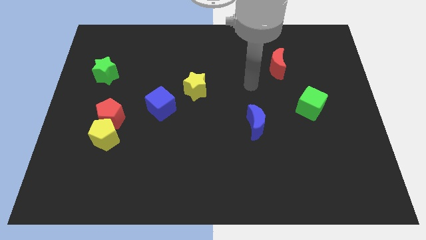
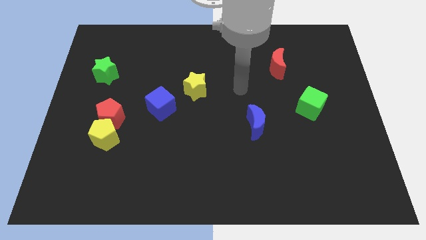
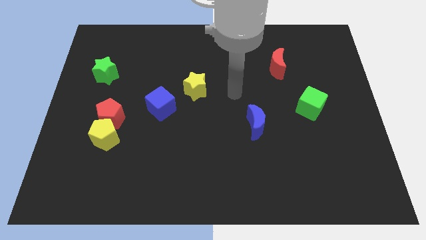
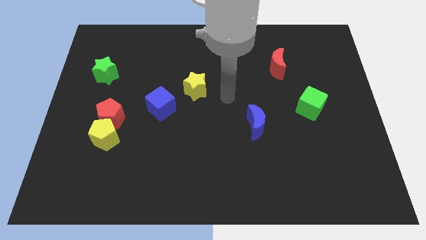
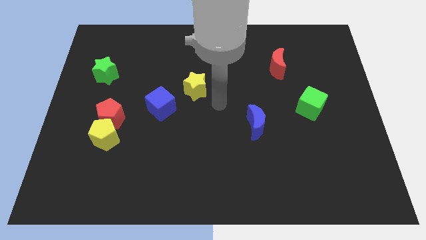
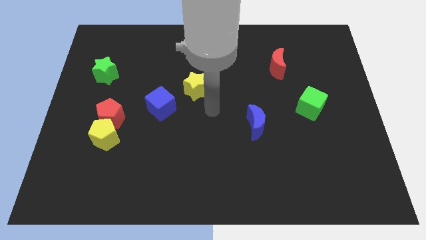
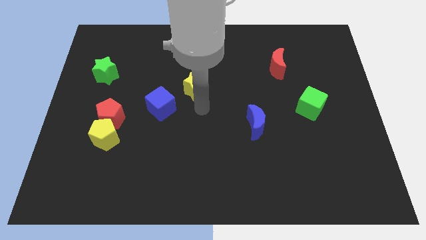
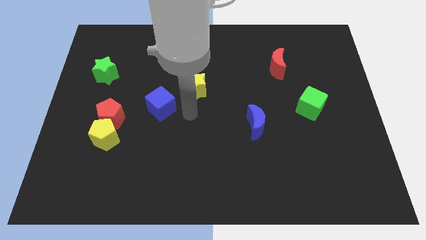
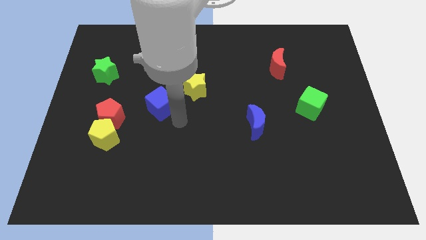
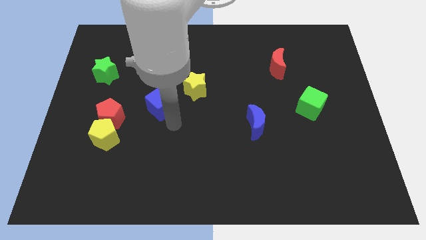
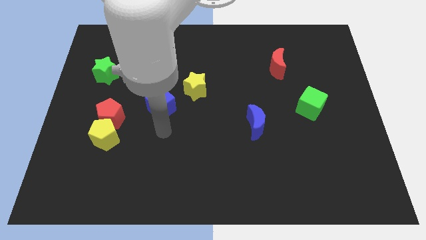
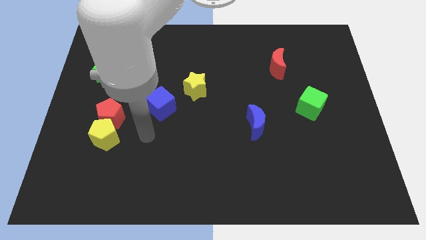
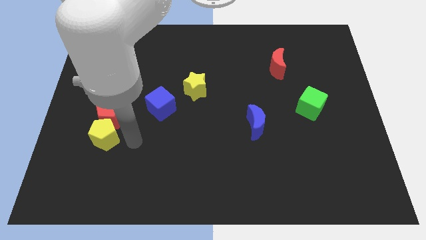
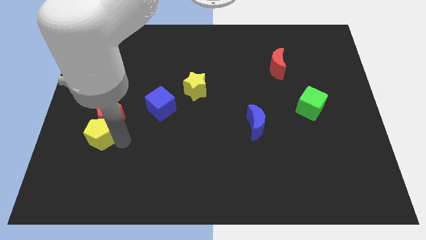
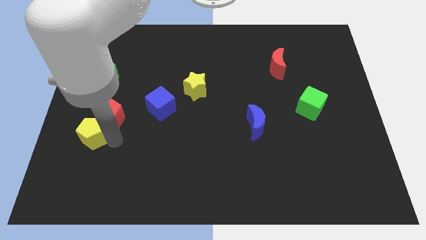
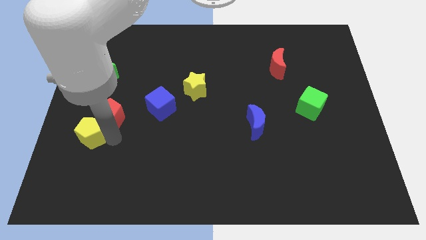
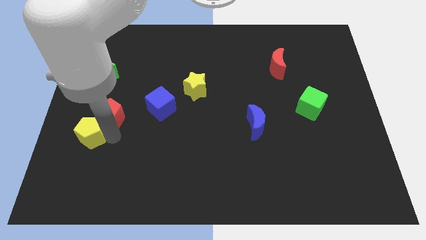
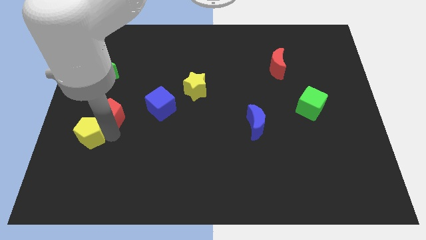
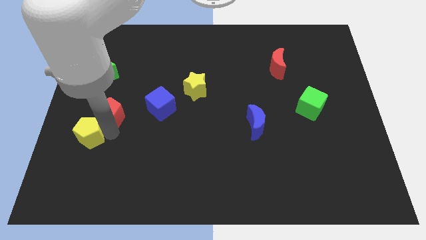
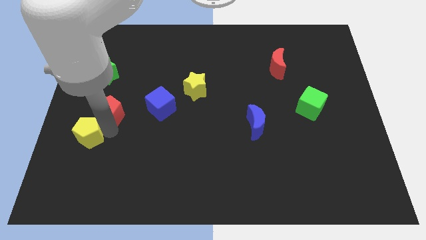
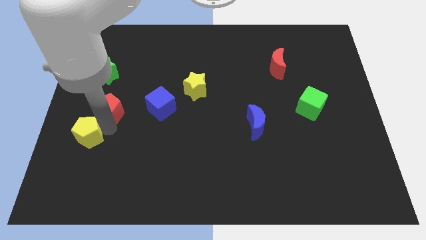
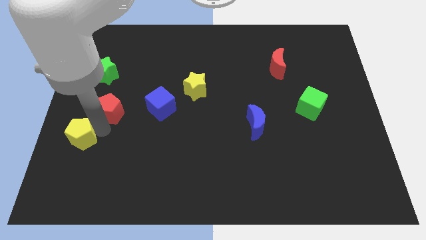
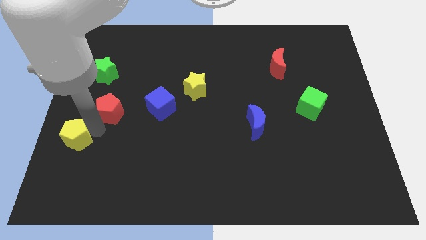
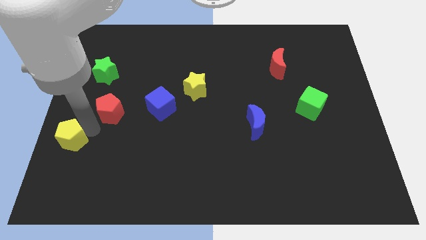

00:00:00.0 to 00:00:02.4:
separate the red pentagon from the yellow pentagon

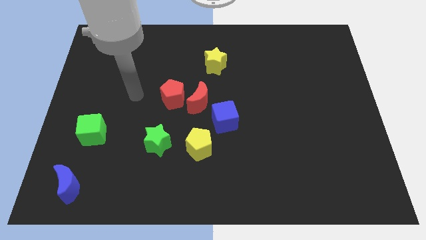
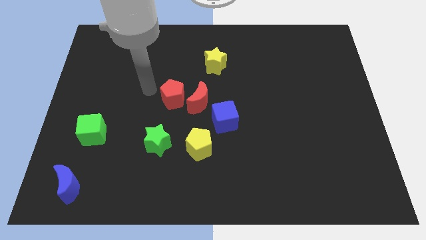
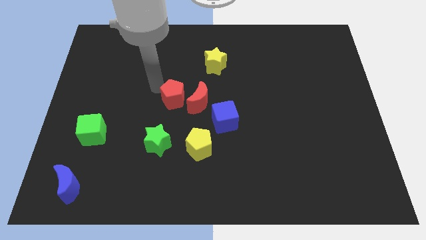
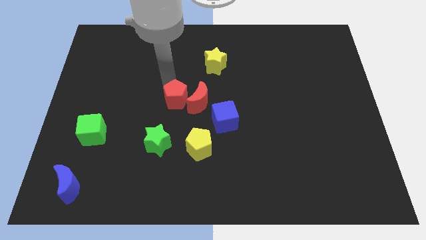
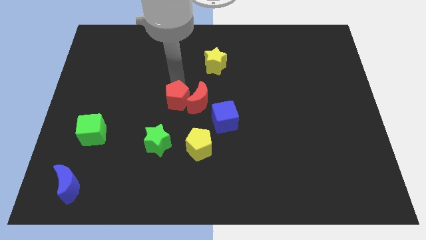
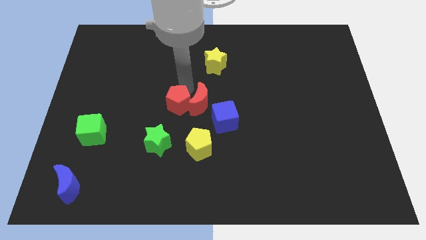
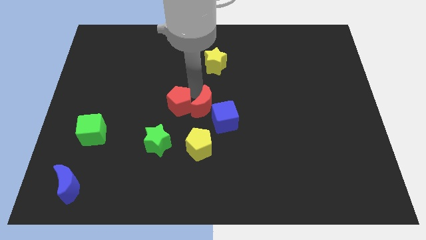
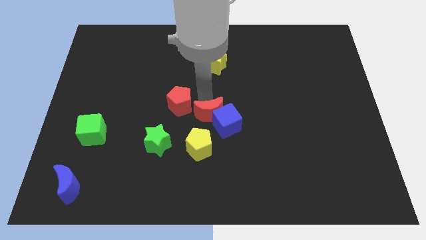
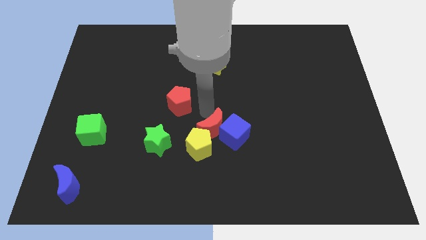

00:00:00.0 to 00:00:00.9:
move the red pentagon away from the red moon

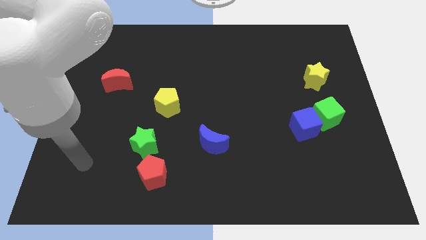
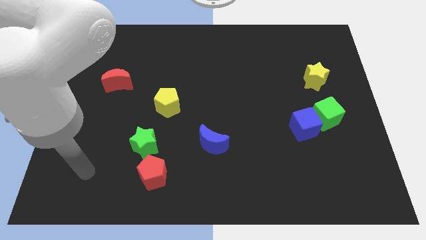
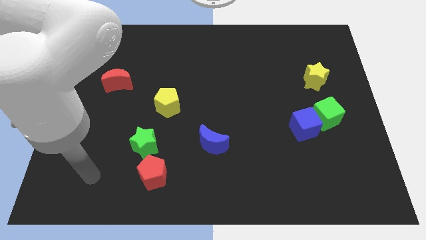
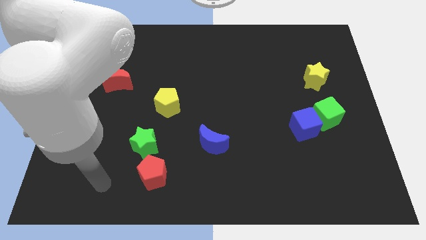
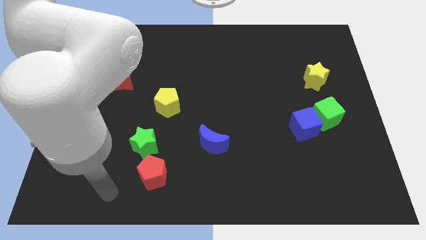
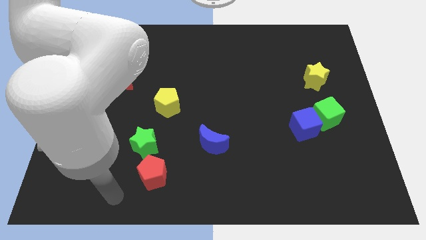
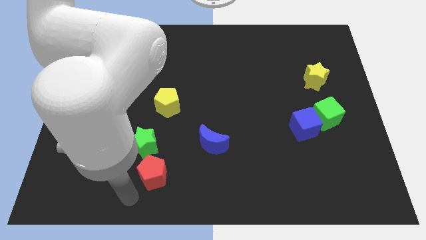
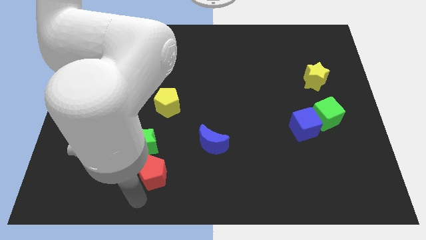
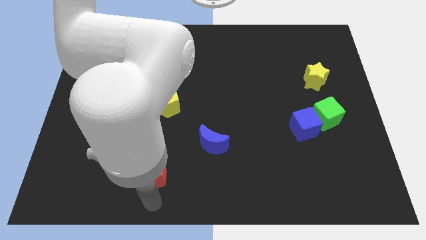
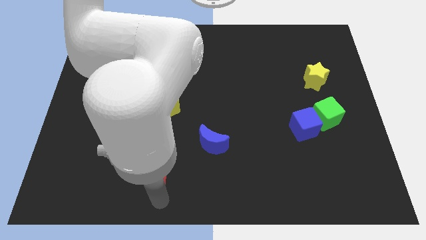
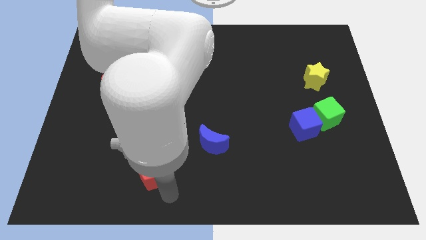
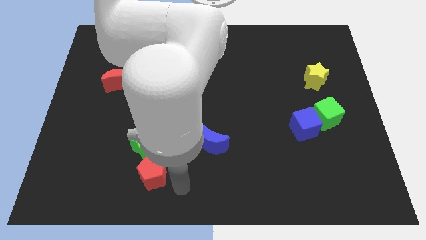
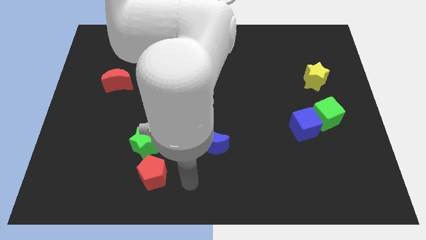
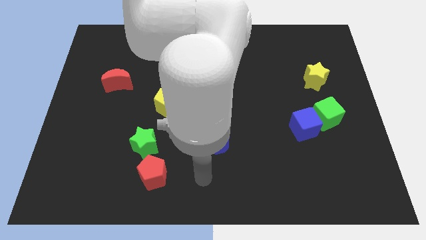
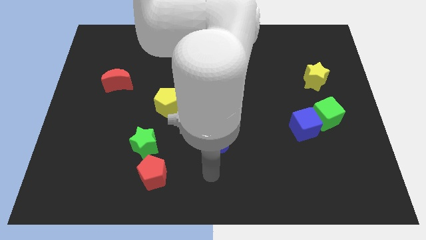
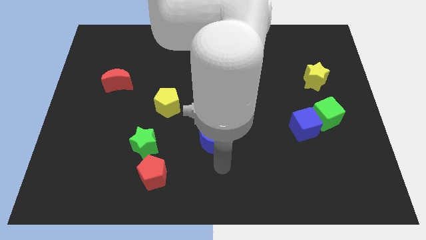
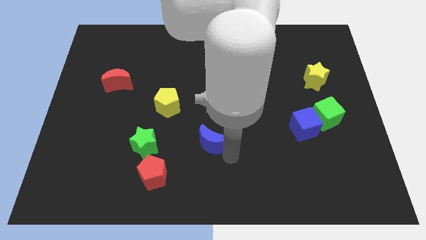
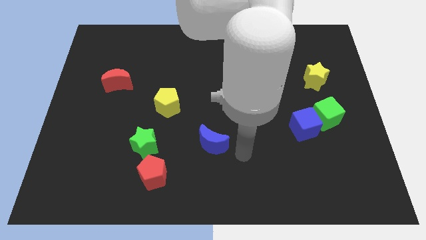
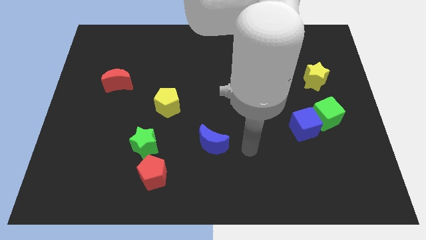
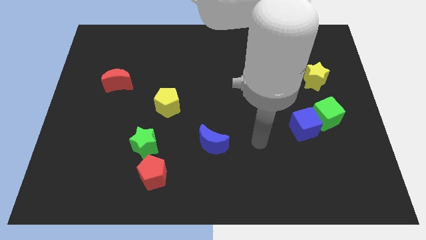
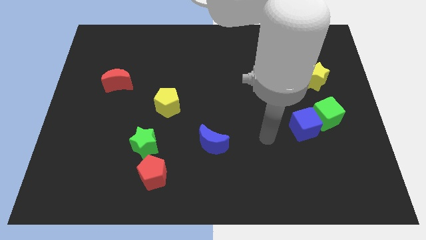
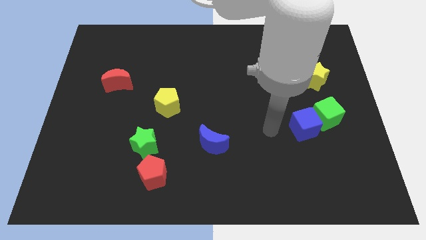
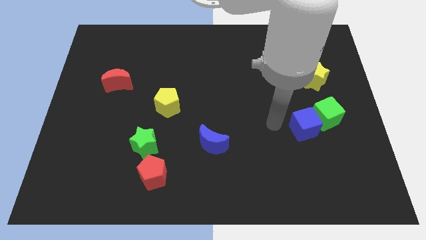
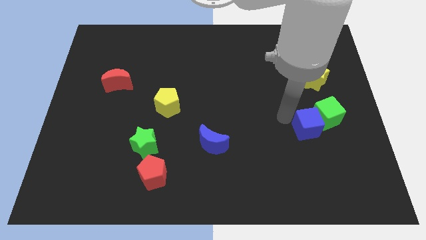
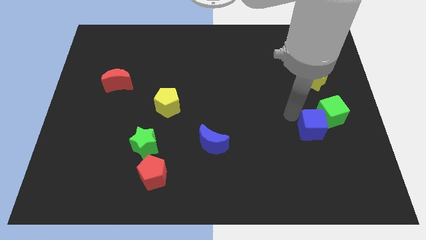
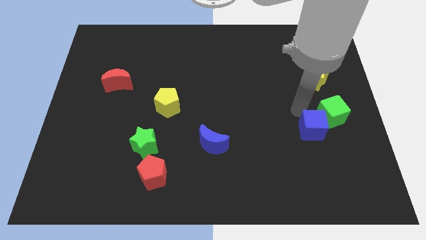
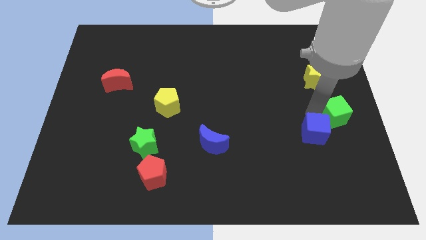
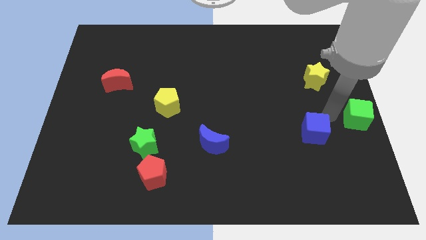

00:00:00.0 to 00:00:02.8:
move the blue cube away from the green cube

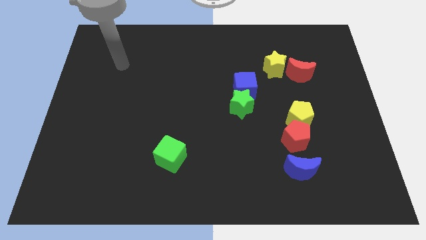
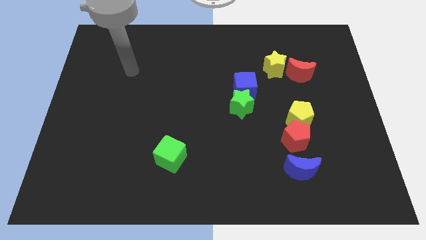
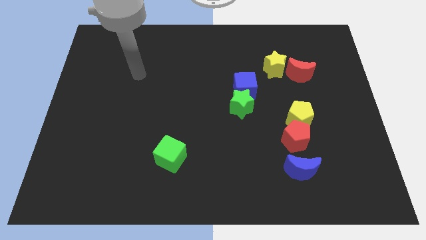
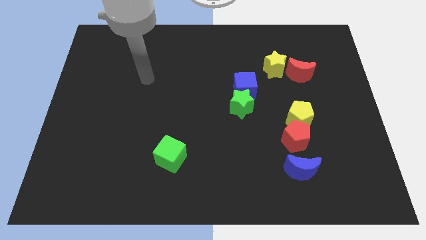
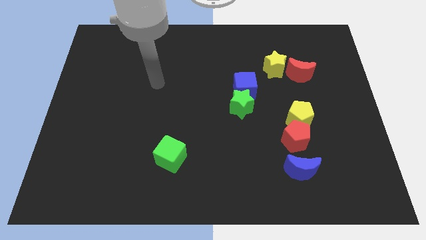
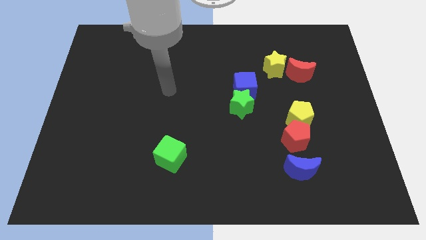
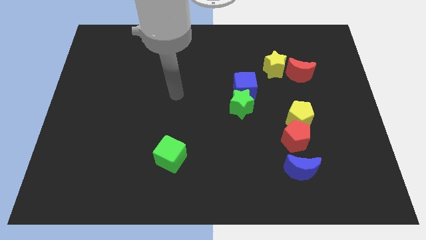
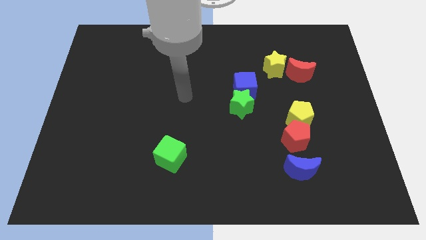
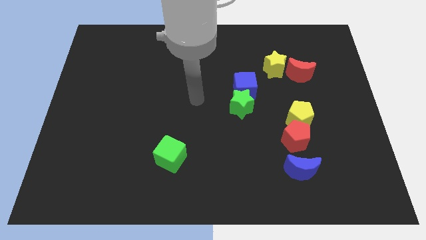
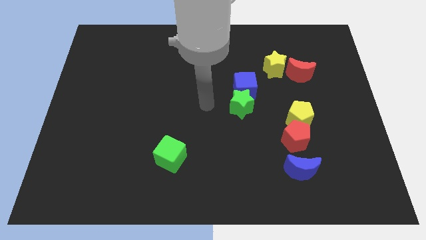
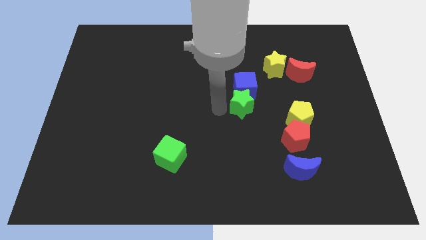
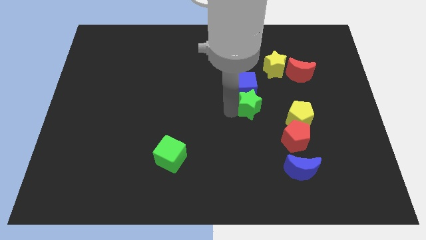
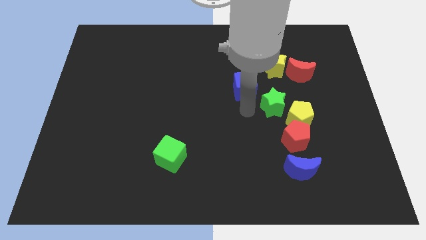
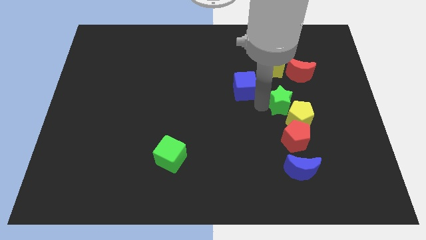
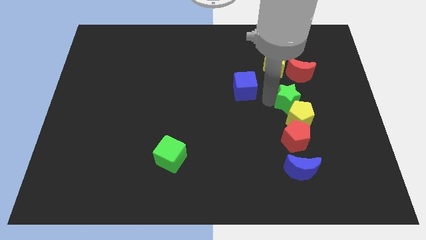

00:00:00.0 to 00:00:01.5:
pull the blue cube apart from the green star

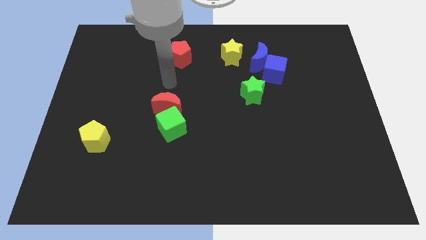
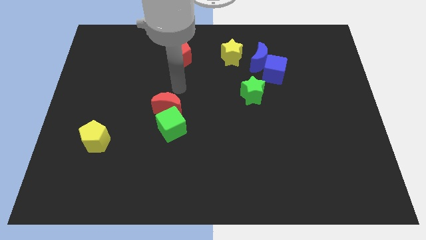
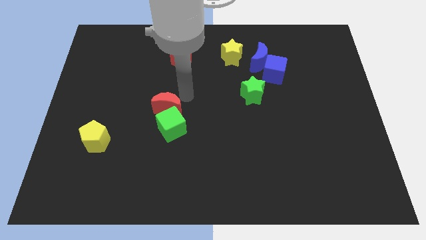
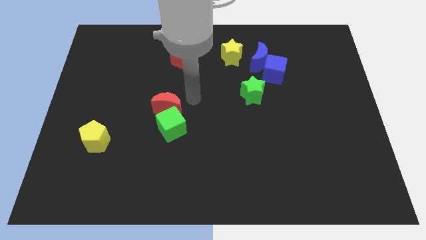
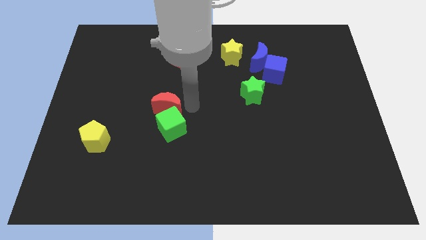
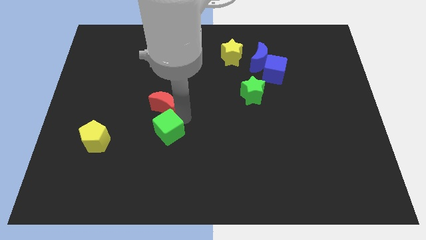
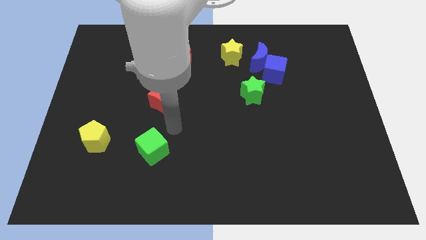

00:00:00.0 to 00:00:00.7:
move the red moon away from the green cube

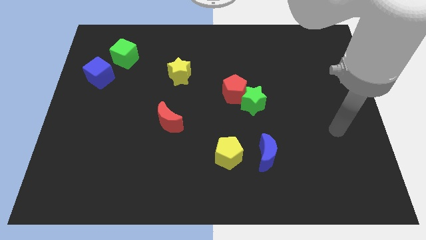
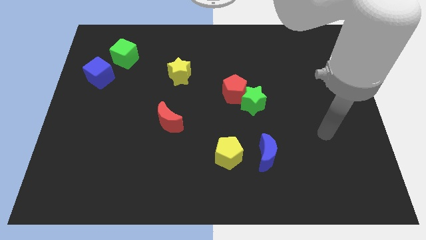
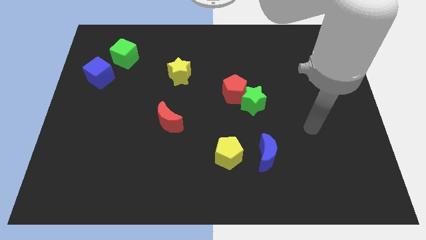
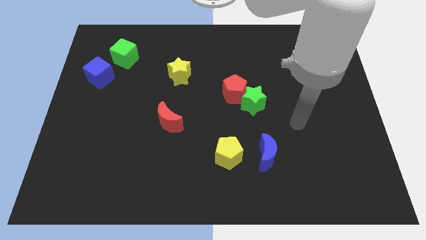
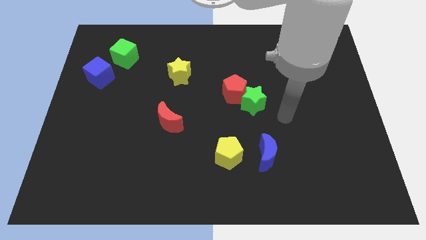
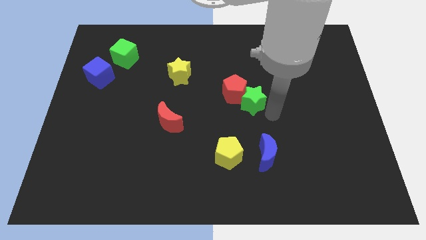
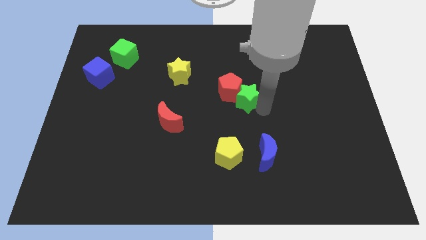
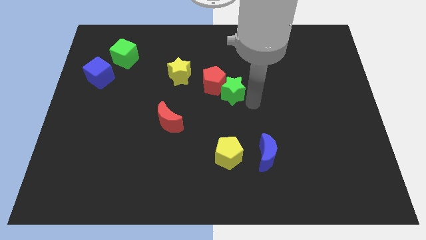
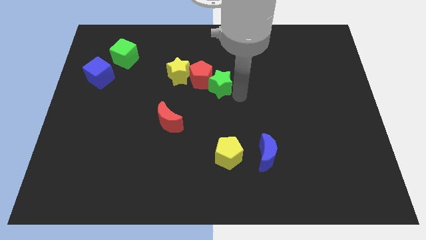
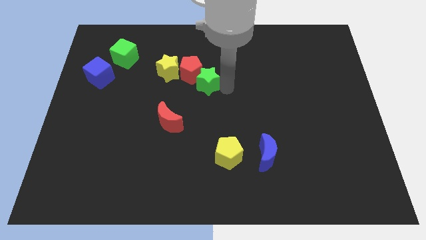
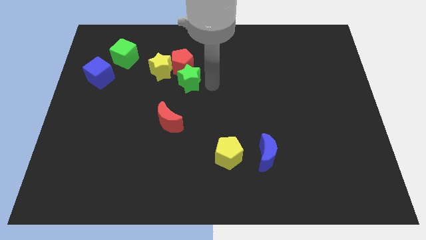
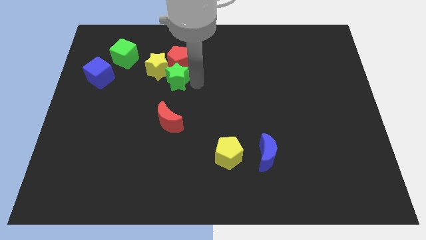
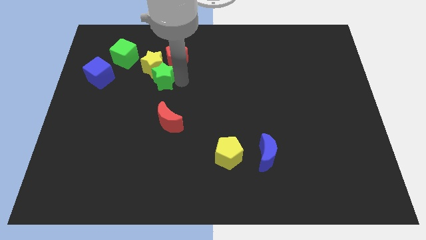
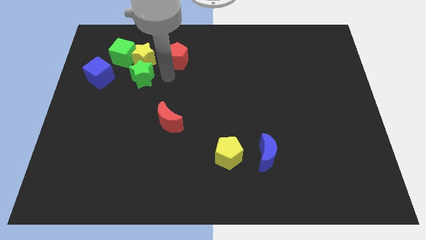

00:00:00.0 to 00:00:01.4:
separate the red pentagon from the green star
